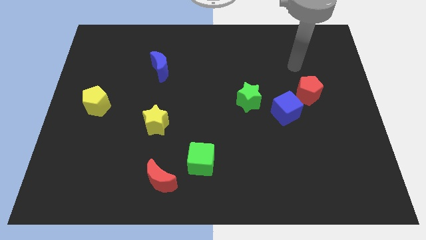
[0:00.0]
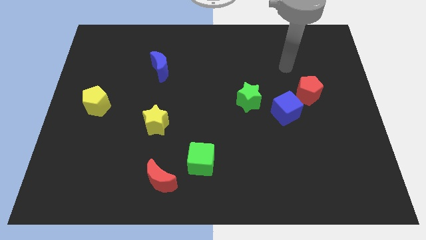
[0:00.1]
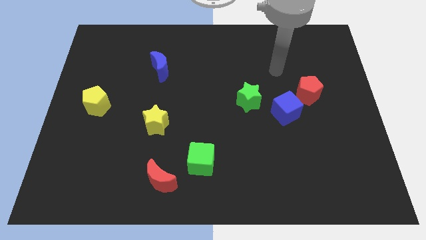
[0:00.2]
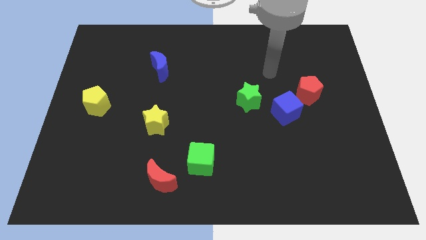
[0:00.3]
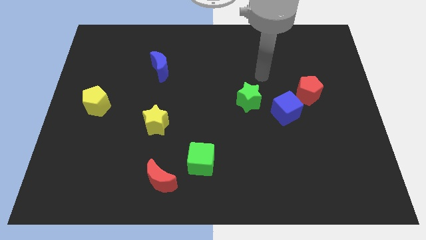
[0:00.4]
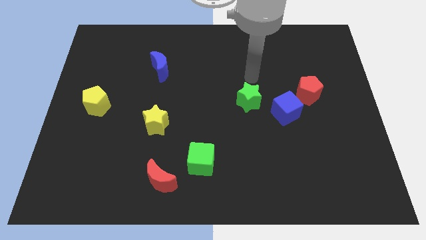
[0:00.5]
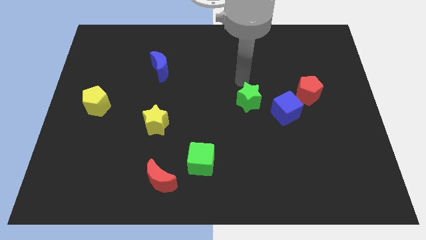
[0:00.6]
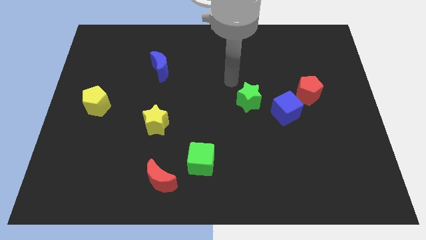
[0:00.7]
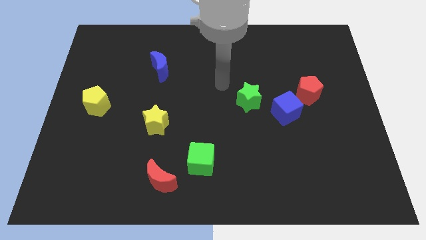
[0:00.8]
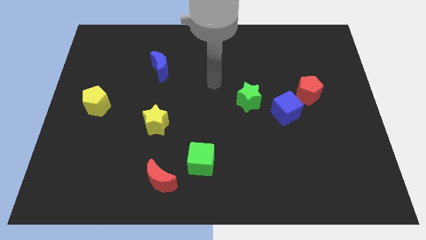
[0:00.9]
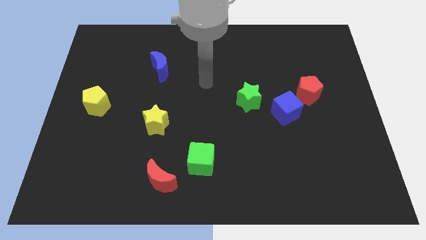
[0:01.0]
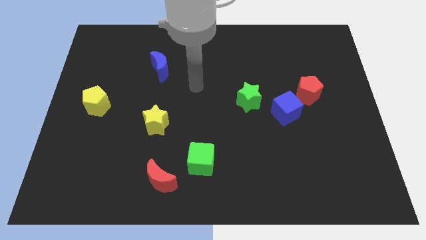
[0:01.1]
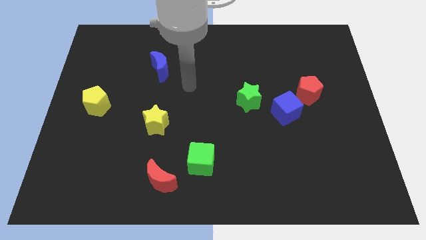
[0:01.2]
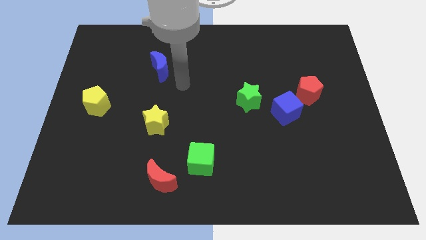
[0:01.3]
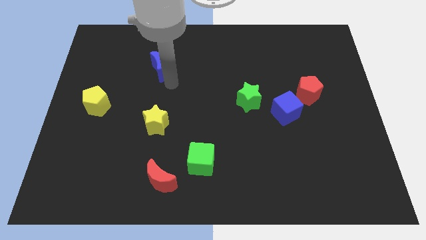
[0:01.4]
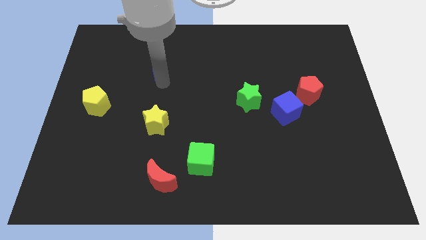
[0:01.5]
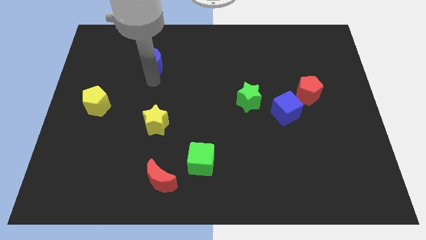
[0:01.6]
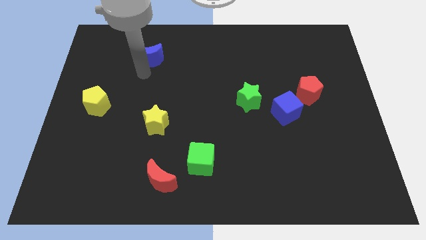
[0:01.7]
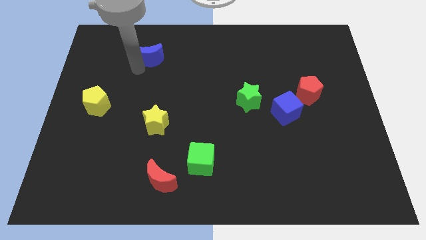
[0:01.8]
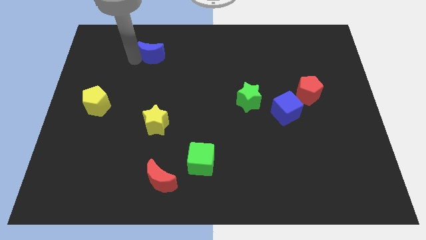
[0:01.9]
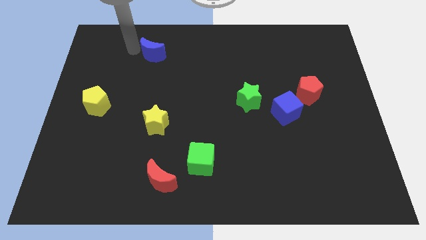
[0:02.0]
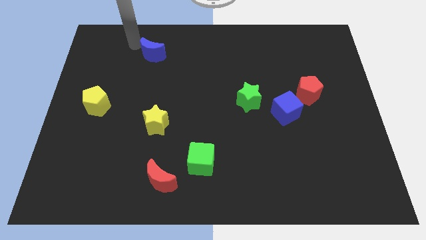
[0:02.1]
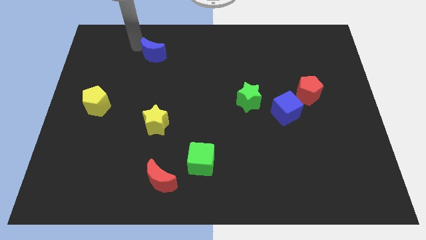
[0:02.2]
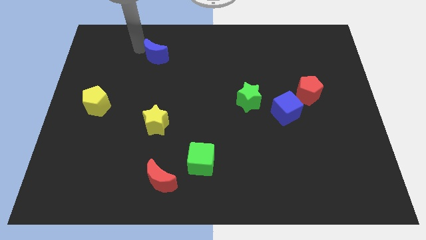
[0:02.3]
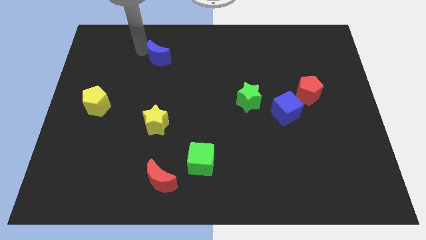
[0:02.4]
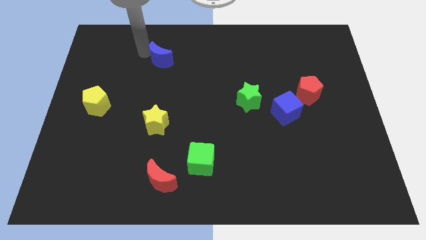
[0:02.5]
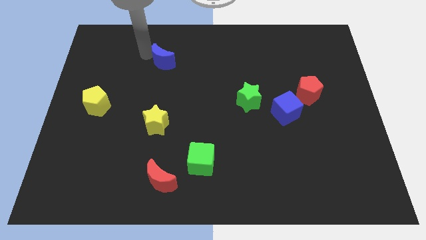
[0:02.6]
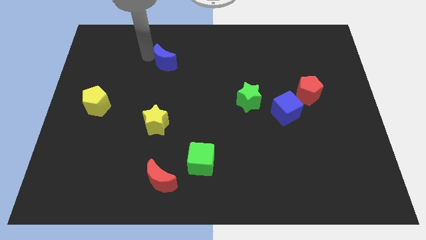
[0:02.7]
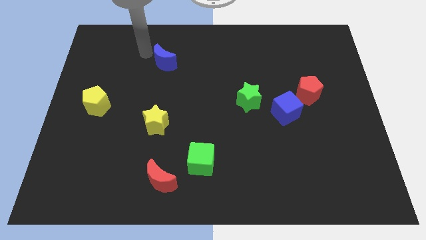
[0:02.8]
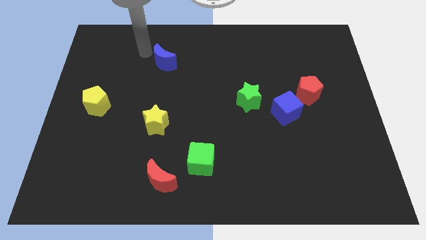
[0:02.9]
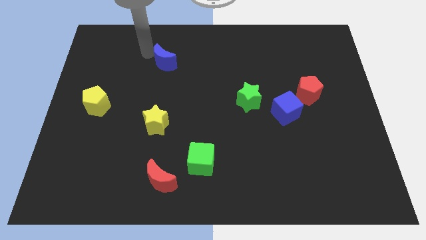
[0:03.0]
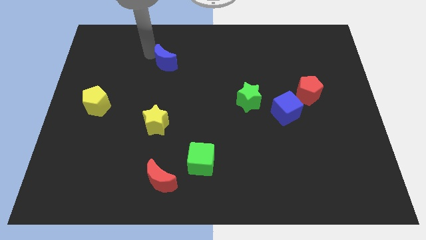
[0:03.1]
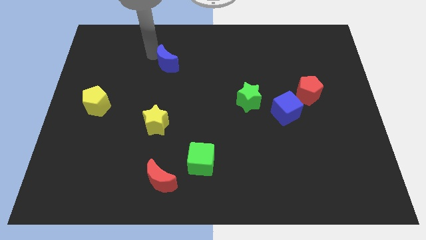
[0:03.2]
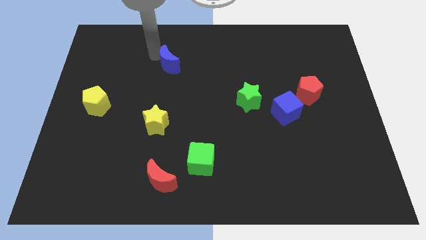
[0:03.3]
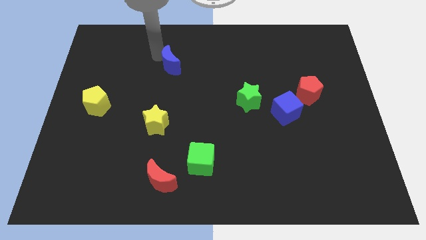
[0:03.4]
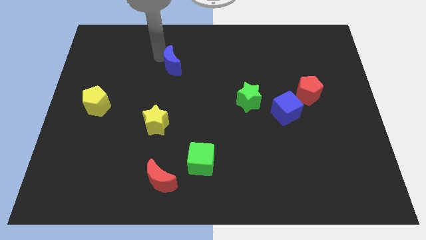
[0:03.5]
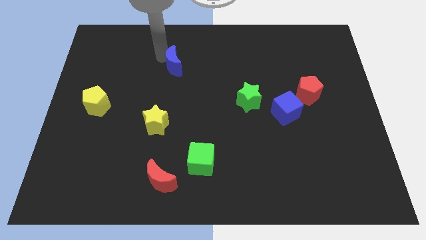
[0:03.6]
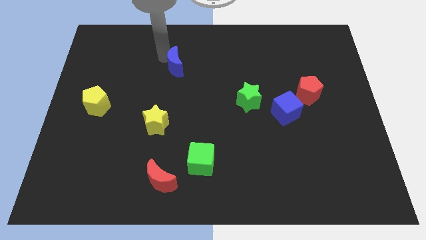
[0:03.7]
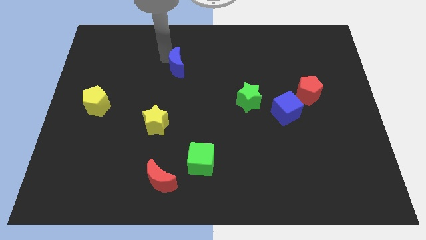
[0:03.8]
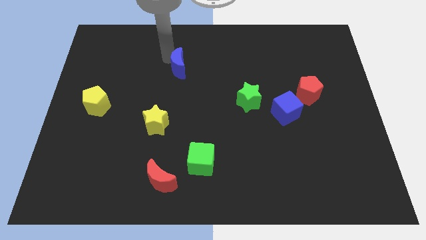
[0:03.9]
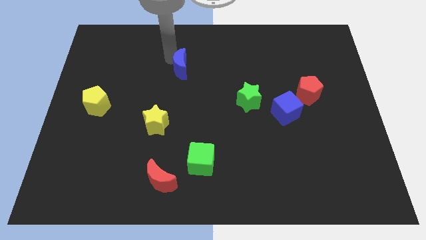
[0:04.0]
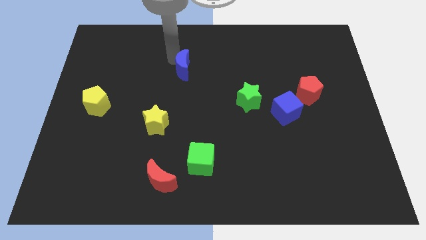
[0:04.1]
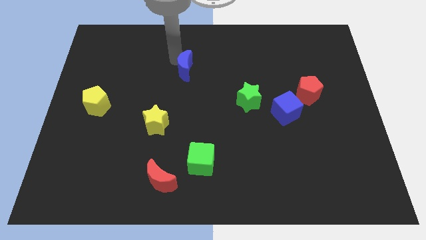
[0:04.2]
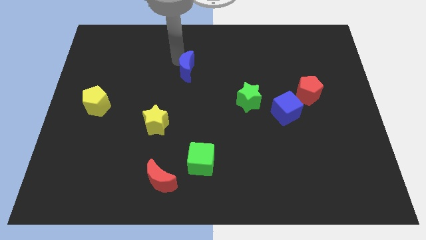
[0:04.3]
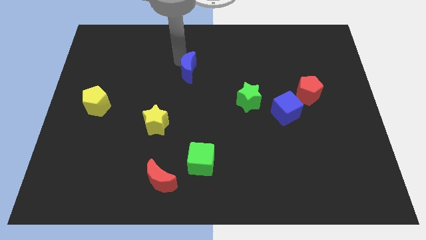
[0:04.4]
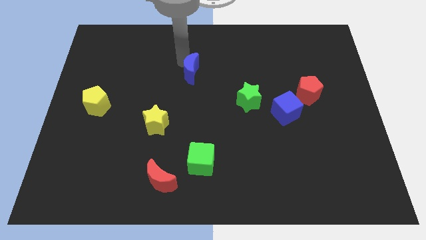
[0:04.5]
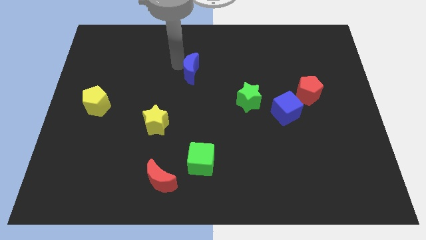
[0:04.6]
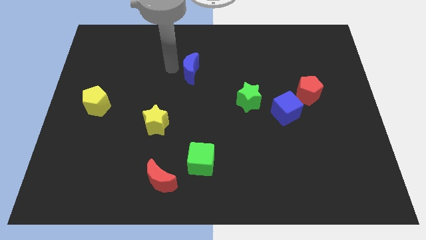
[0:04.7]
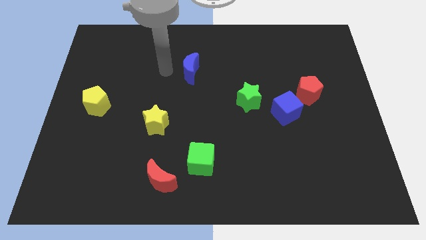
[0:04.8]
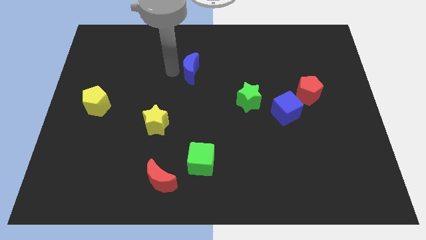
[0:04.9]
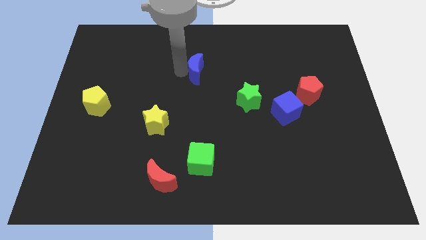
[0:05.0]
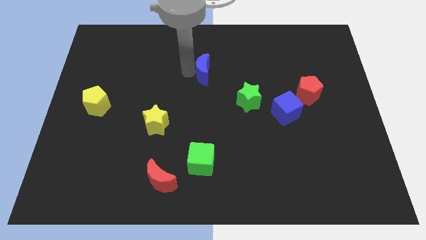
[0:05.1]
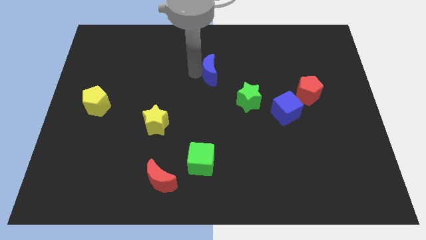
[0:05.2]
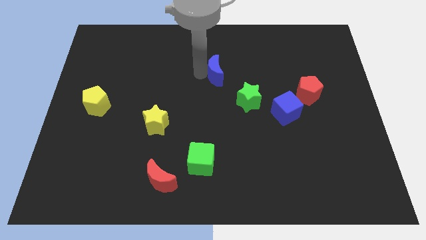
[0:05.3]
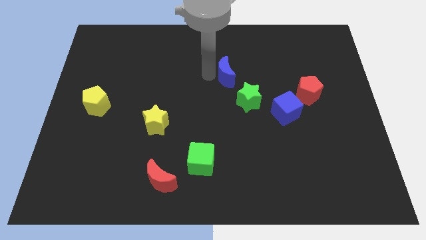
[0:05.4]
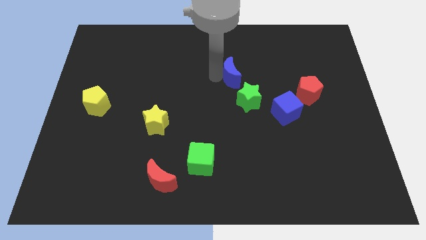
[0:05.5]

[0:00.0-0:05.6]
put the blue moon to the top side of the green star

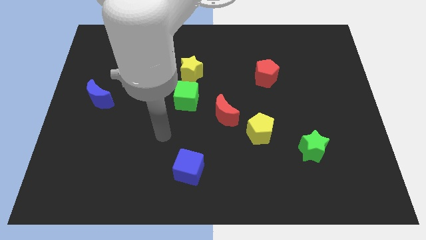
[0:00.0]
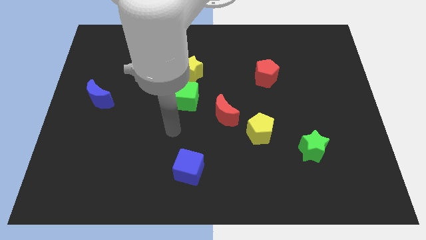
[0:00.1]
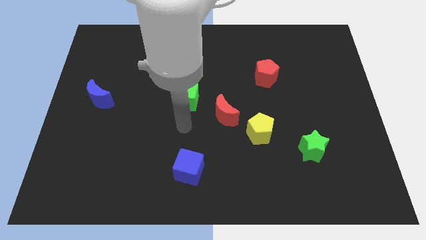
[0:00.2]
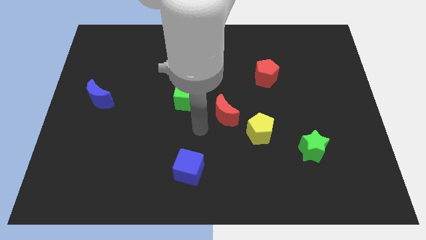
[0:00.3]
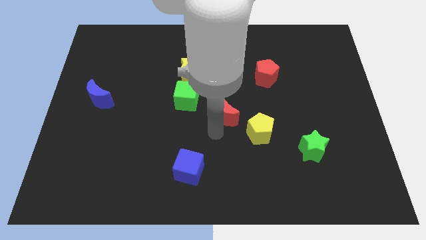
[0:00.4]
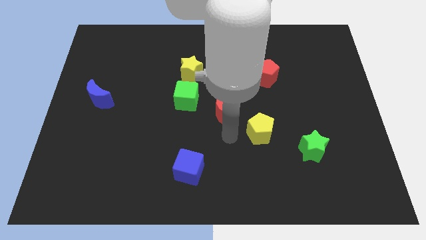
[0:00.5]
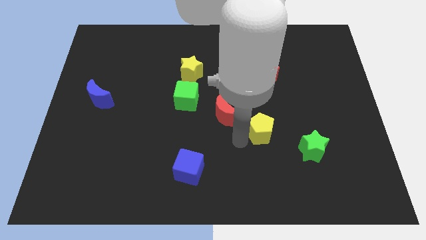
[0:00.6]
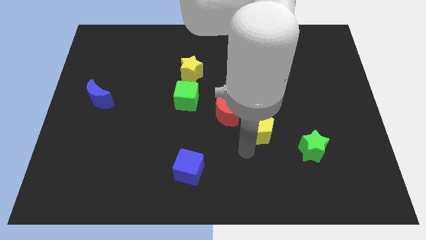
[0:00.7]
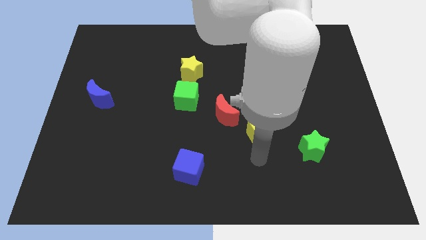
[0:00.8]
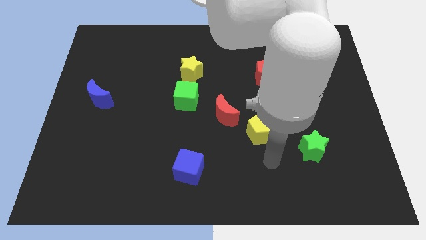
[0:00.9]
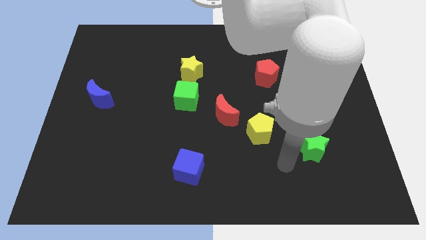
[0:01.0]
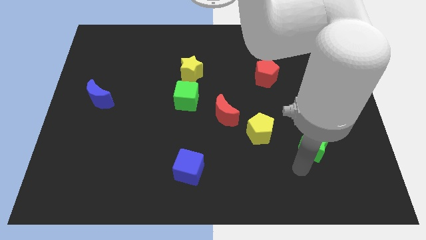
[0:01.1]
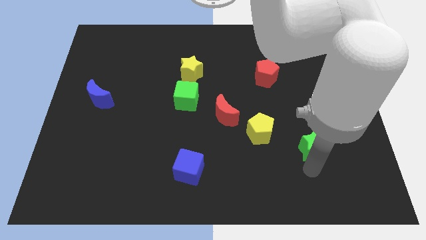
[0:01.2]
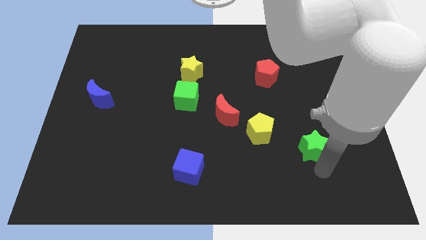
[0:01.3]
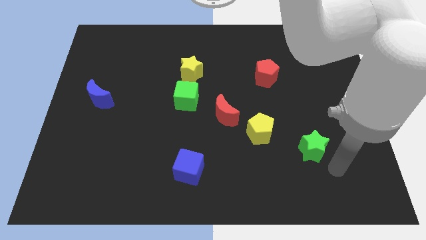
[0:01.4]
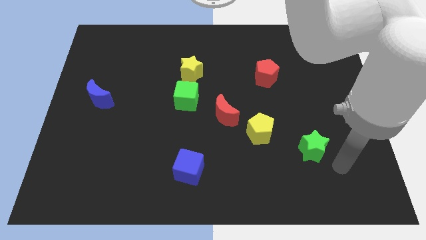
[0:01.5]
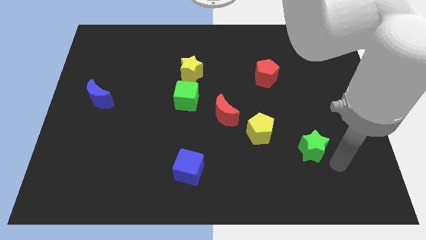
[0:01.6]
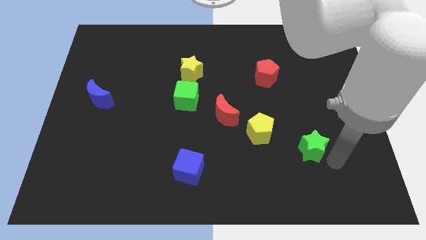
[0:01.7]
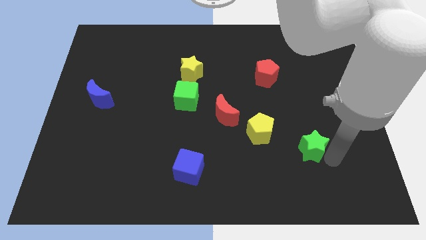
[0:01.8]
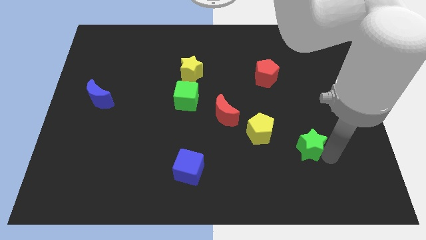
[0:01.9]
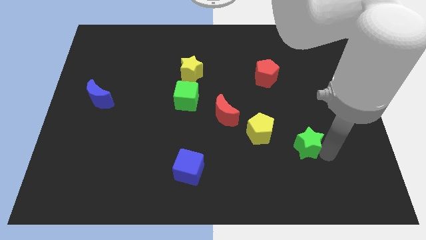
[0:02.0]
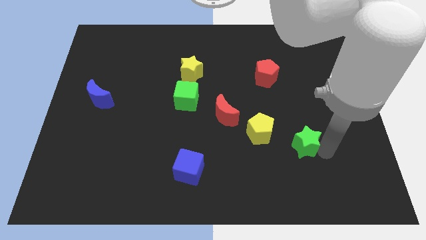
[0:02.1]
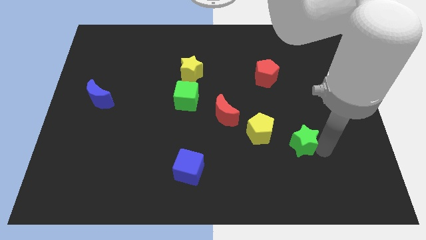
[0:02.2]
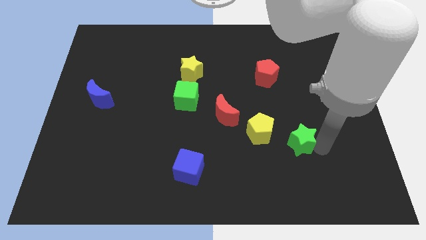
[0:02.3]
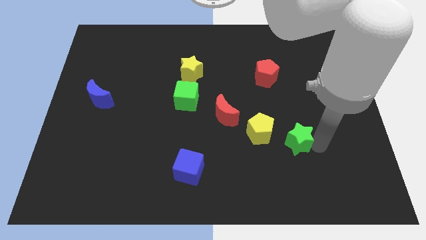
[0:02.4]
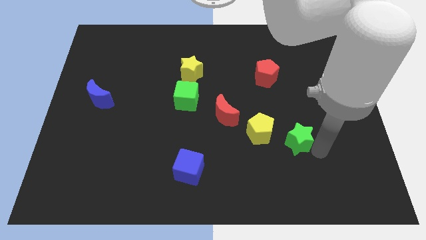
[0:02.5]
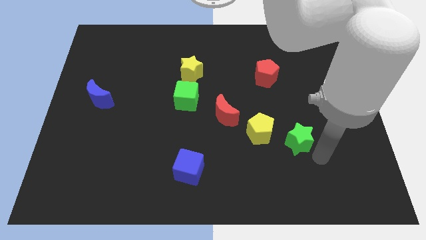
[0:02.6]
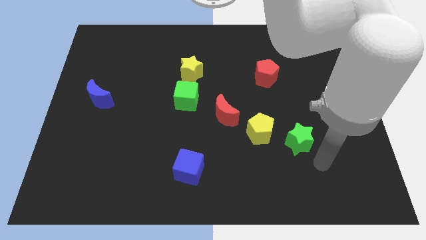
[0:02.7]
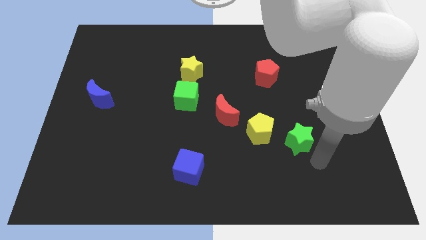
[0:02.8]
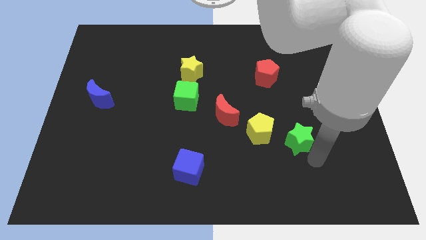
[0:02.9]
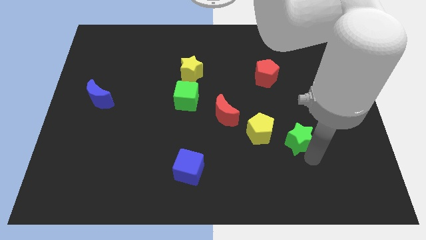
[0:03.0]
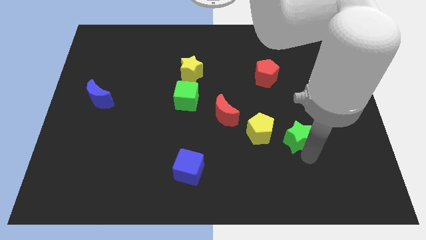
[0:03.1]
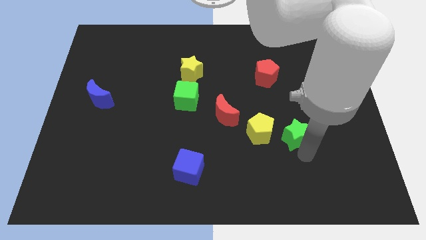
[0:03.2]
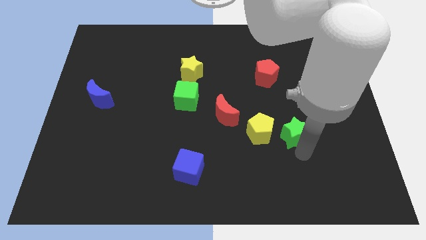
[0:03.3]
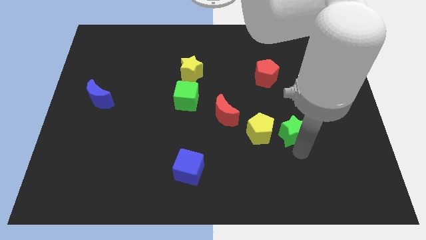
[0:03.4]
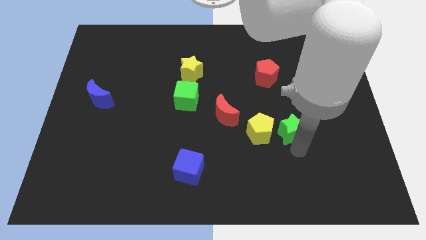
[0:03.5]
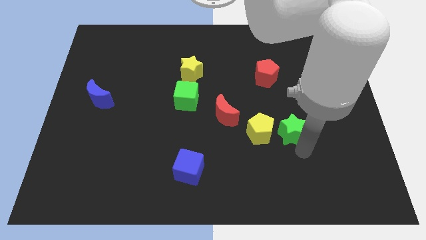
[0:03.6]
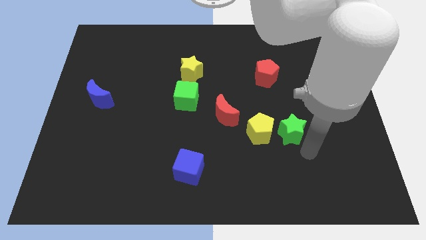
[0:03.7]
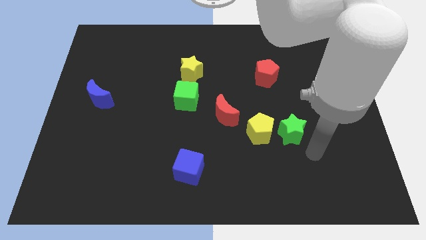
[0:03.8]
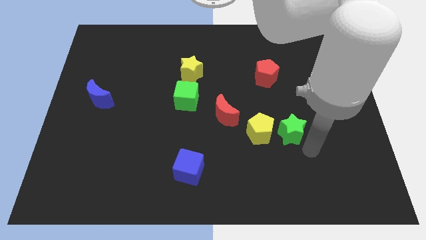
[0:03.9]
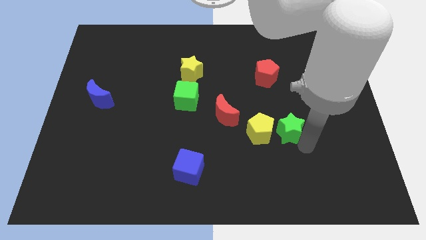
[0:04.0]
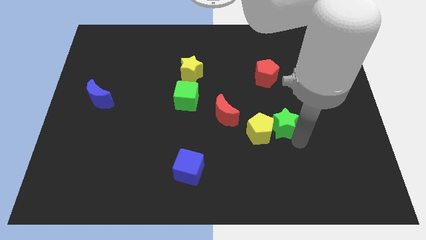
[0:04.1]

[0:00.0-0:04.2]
push the green star to the bottom of the red pentagon
